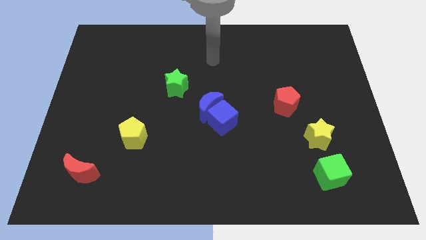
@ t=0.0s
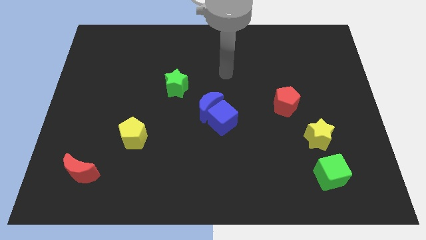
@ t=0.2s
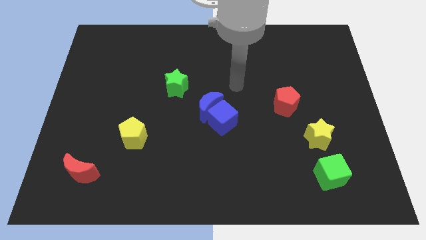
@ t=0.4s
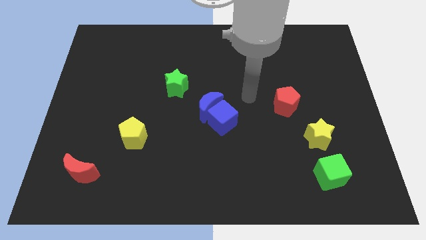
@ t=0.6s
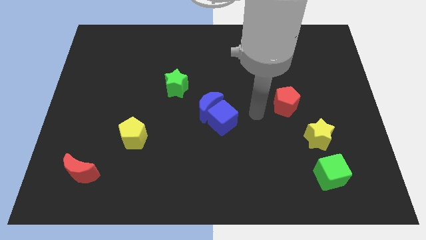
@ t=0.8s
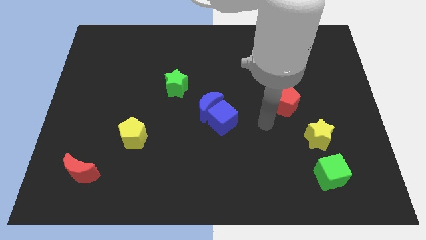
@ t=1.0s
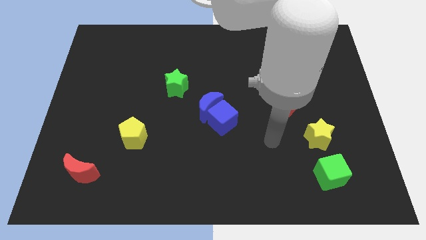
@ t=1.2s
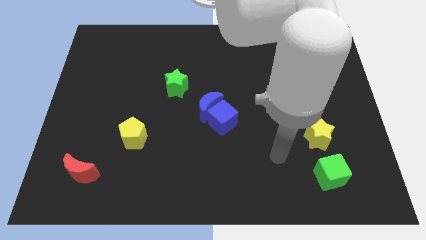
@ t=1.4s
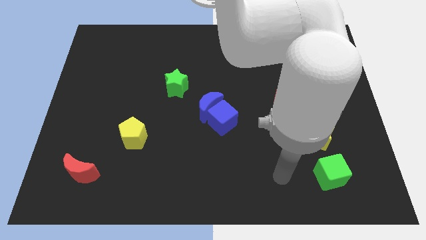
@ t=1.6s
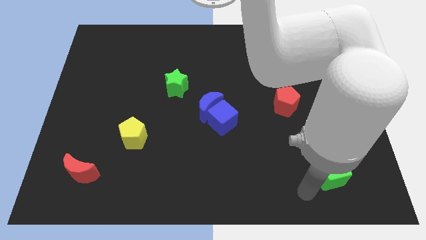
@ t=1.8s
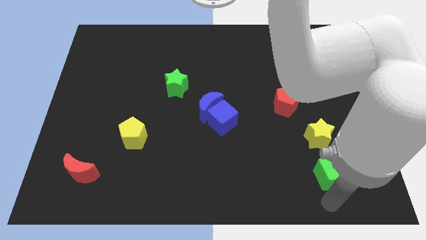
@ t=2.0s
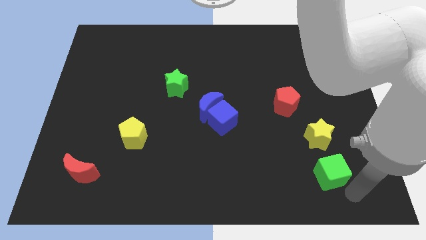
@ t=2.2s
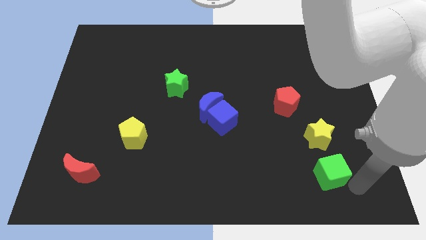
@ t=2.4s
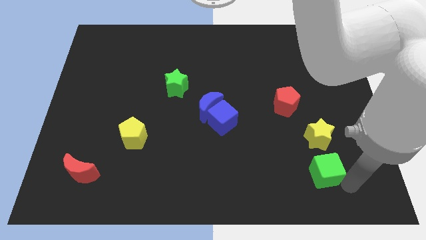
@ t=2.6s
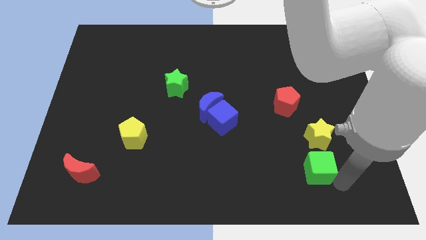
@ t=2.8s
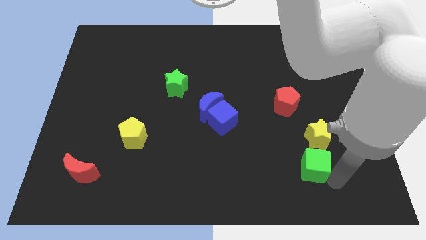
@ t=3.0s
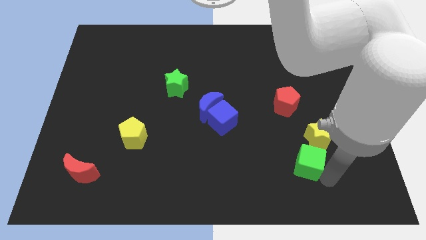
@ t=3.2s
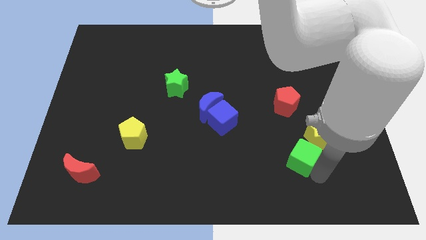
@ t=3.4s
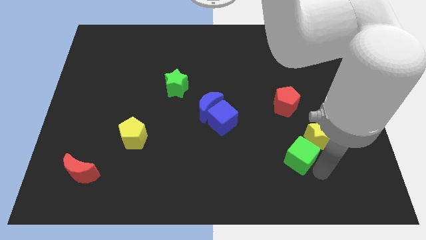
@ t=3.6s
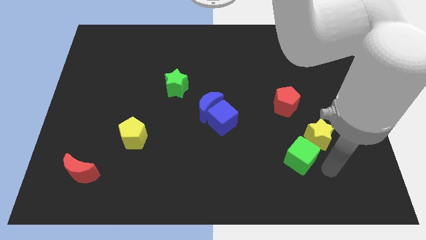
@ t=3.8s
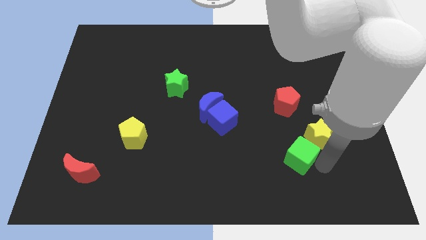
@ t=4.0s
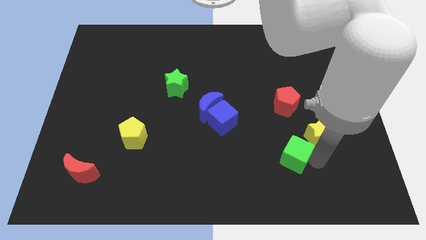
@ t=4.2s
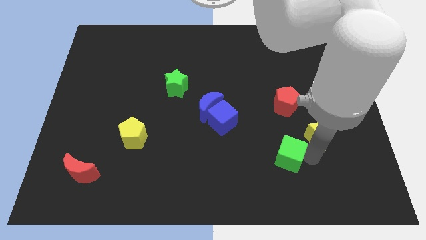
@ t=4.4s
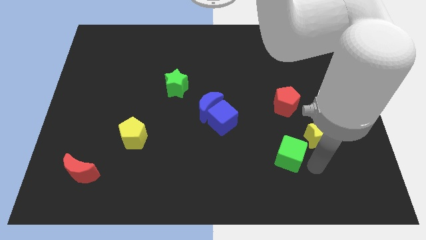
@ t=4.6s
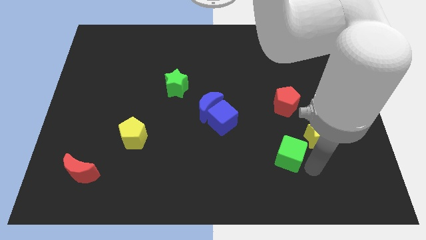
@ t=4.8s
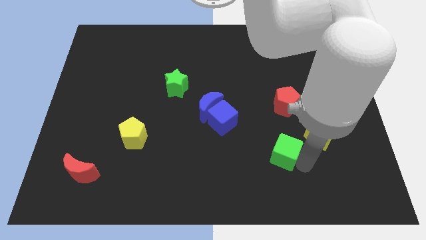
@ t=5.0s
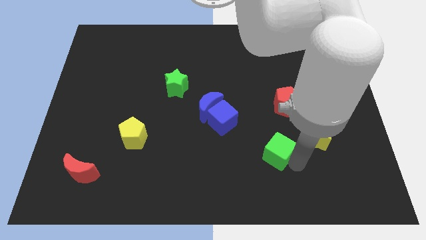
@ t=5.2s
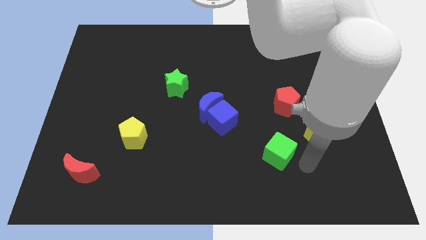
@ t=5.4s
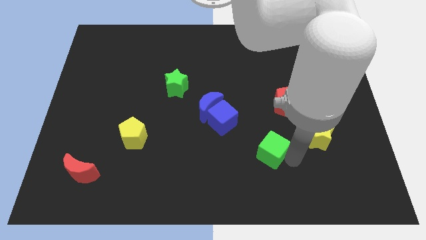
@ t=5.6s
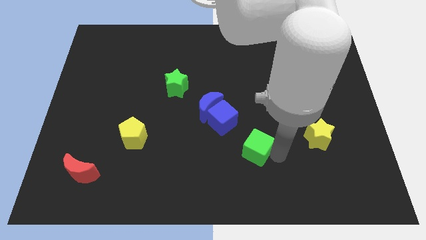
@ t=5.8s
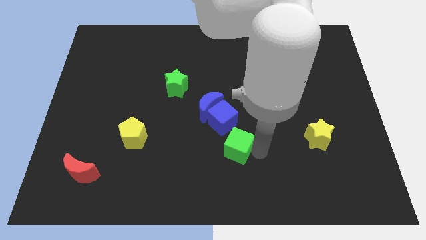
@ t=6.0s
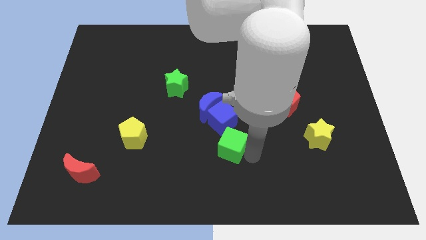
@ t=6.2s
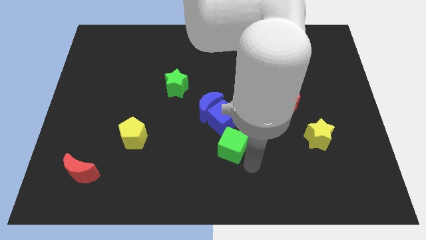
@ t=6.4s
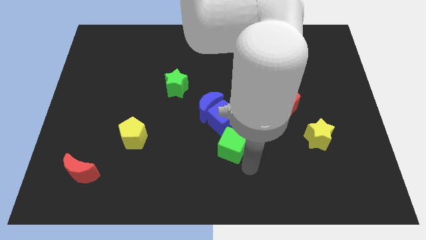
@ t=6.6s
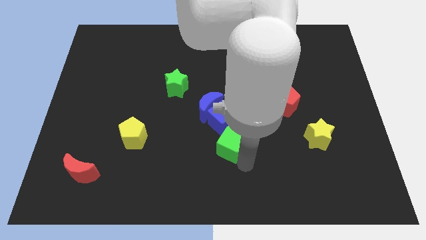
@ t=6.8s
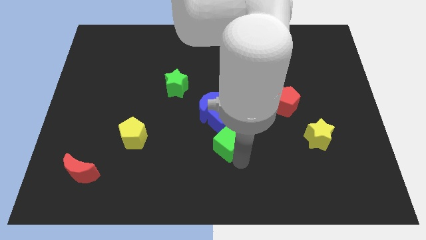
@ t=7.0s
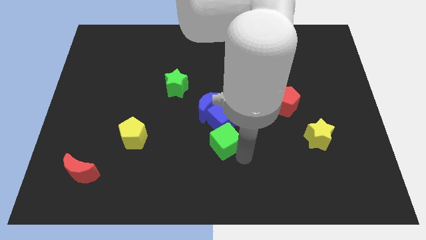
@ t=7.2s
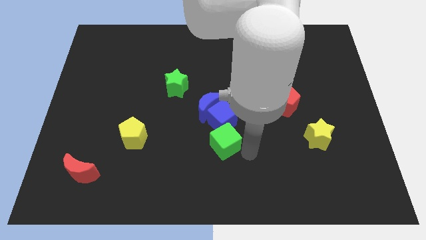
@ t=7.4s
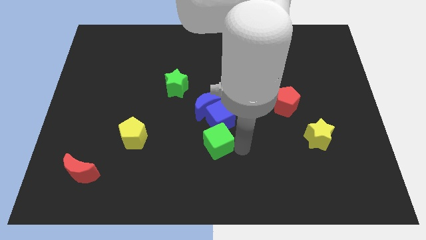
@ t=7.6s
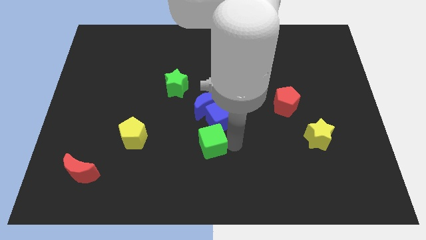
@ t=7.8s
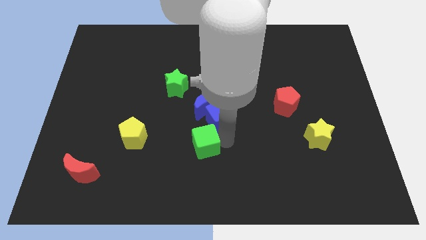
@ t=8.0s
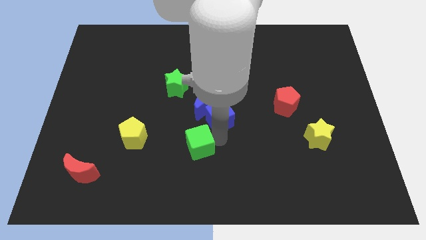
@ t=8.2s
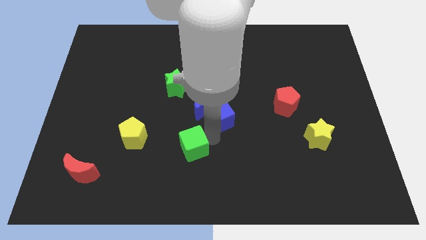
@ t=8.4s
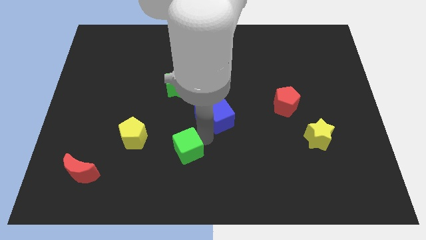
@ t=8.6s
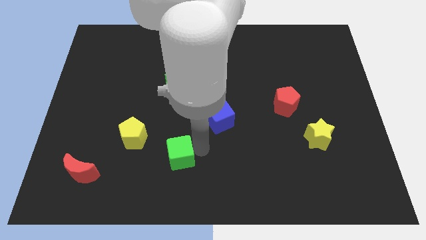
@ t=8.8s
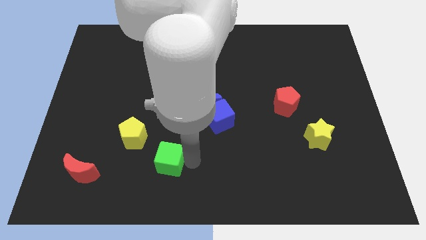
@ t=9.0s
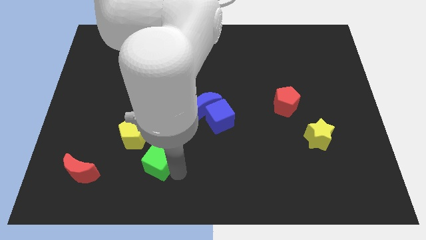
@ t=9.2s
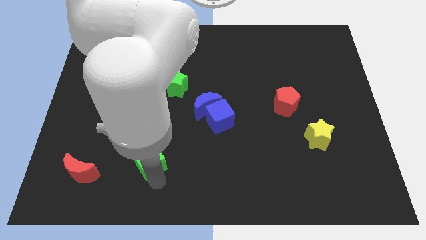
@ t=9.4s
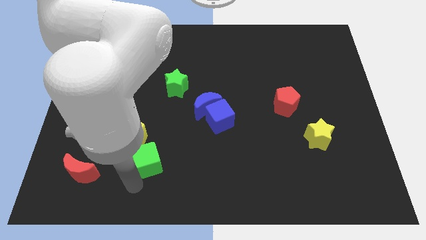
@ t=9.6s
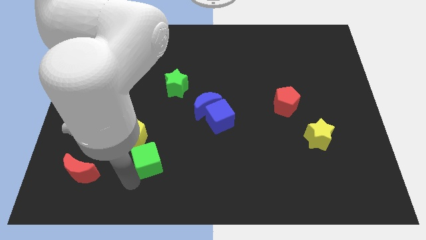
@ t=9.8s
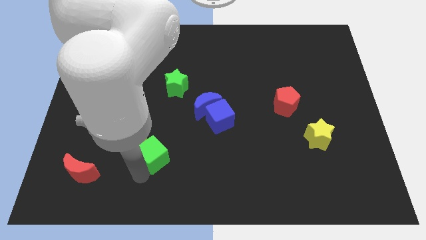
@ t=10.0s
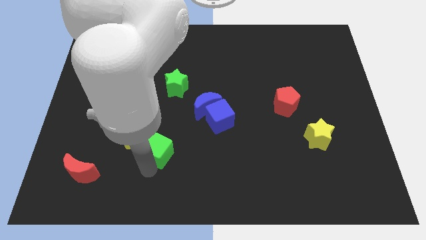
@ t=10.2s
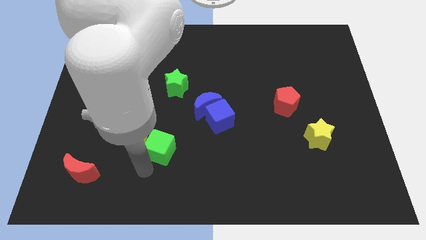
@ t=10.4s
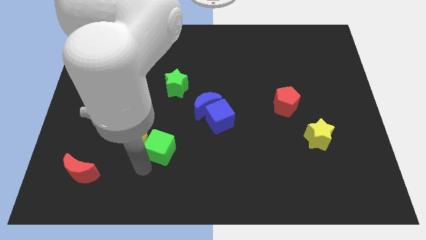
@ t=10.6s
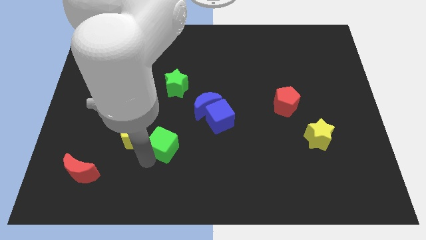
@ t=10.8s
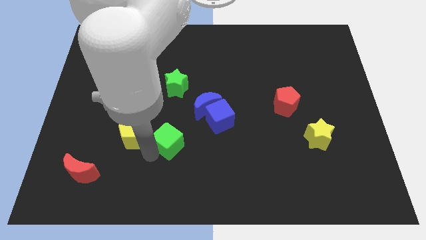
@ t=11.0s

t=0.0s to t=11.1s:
push the green cube diagonally down and to the left of the blue moon

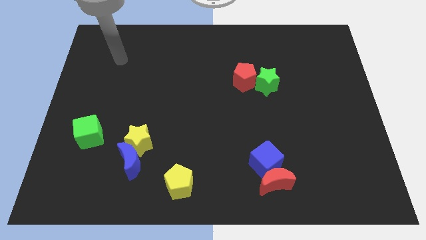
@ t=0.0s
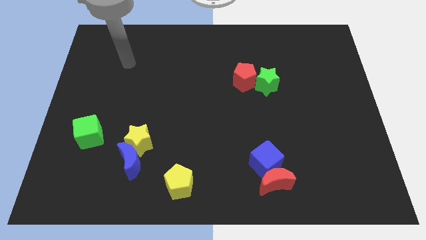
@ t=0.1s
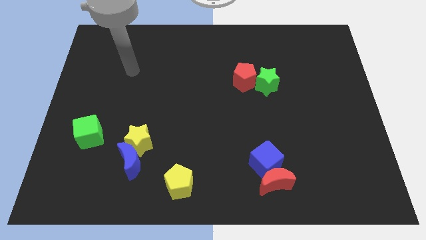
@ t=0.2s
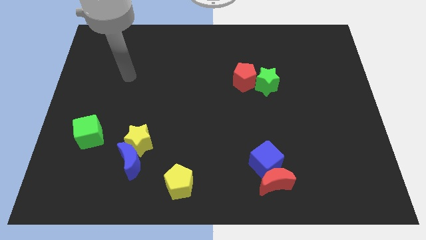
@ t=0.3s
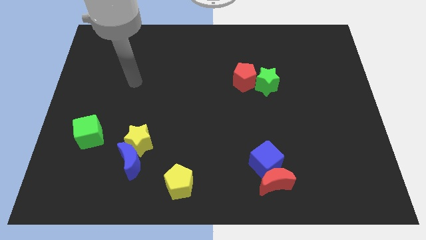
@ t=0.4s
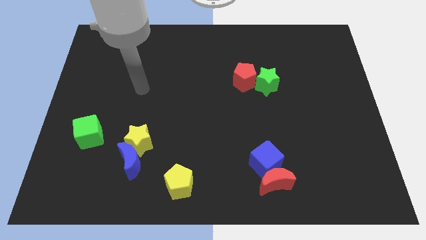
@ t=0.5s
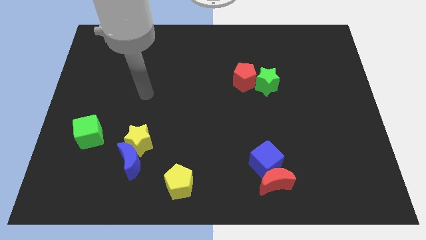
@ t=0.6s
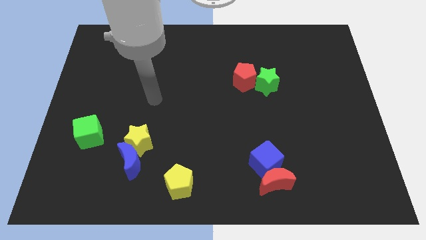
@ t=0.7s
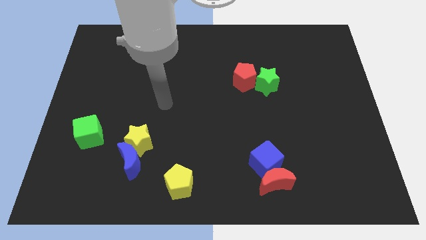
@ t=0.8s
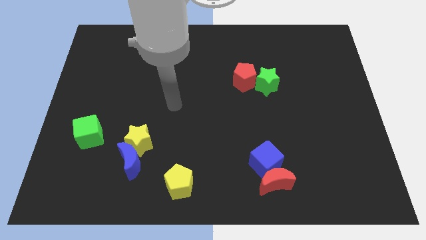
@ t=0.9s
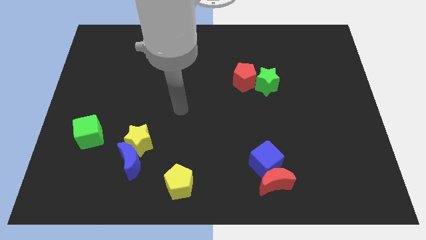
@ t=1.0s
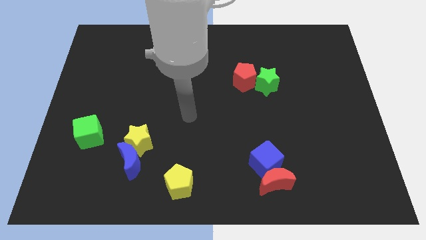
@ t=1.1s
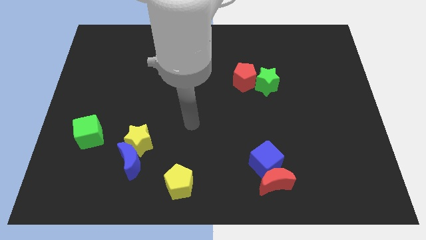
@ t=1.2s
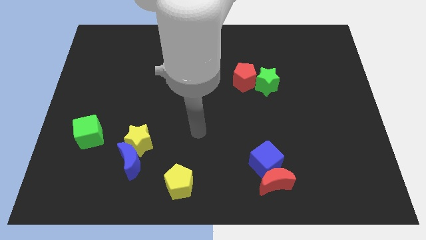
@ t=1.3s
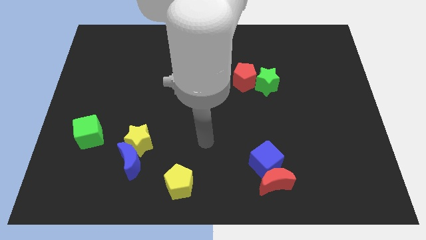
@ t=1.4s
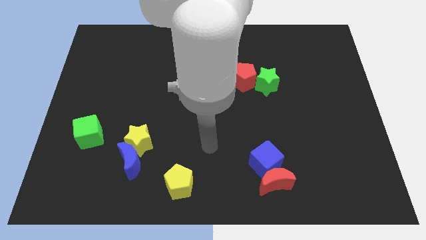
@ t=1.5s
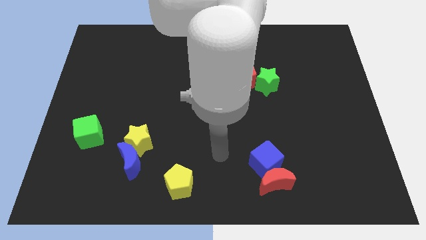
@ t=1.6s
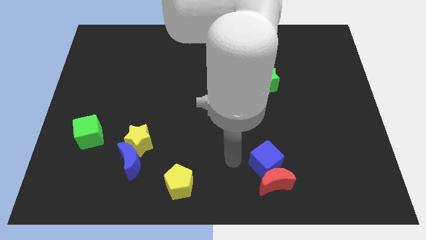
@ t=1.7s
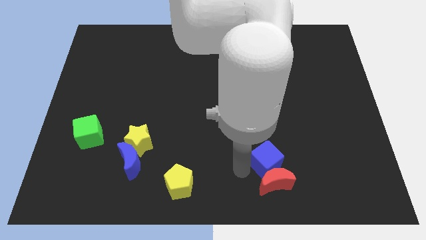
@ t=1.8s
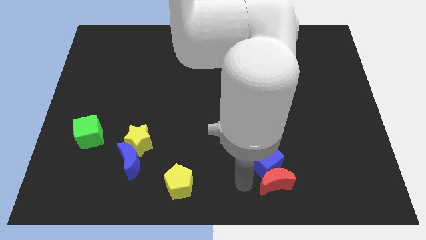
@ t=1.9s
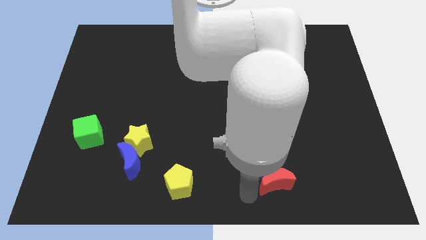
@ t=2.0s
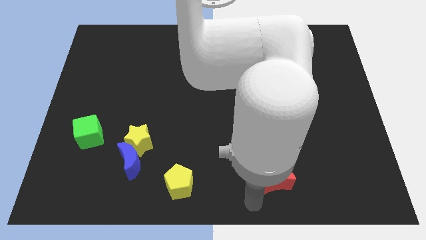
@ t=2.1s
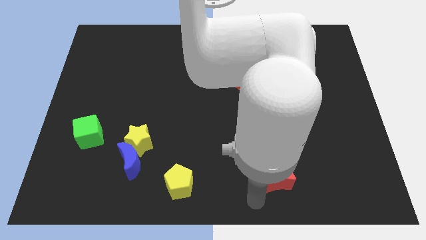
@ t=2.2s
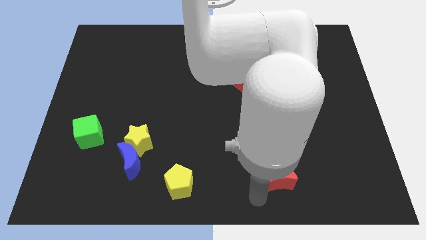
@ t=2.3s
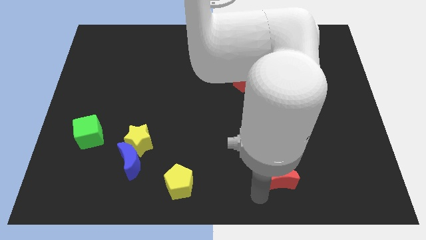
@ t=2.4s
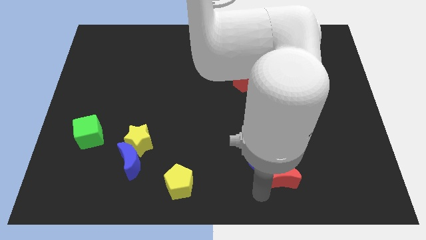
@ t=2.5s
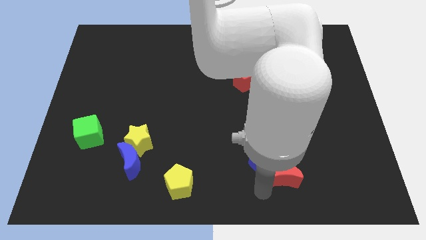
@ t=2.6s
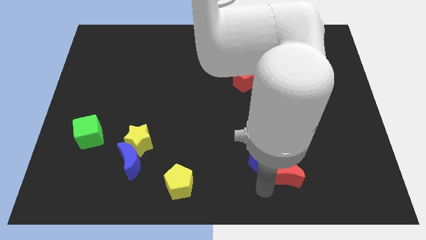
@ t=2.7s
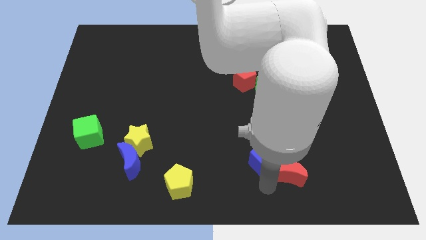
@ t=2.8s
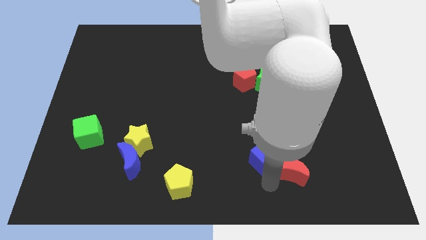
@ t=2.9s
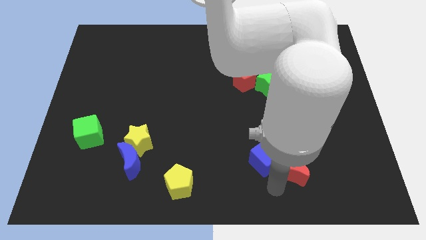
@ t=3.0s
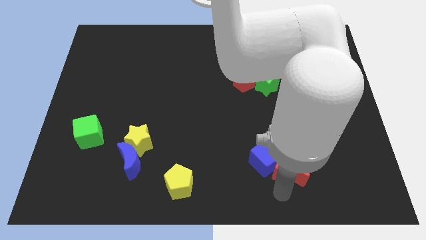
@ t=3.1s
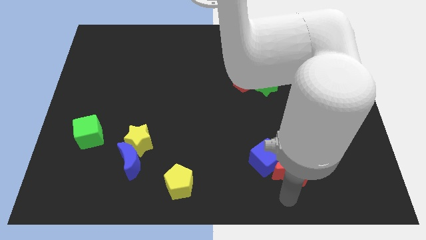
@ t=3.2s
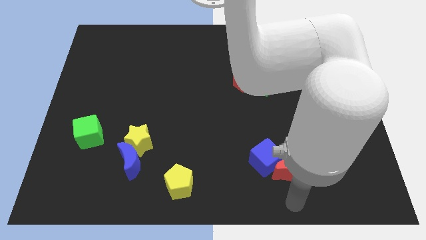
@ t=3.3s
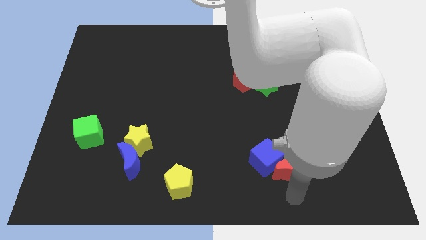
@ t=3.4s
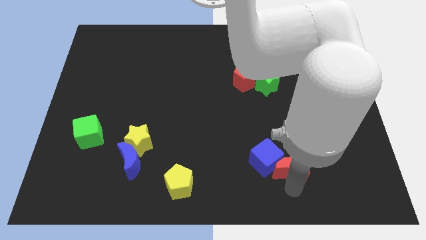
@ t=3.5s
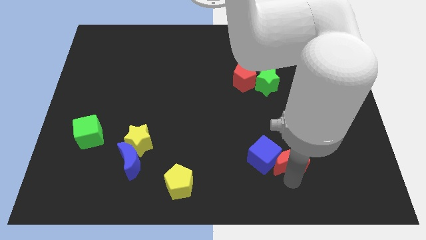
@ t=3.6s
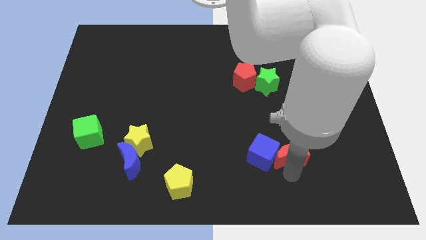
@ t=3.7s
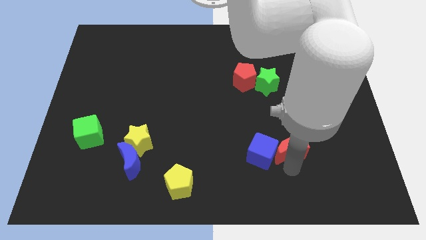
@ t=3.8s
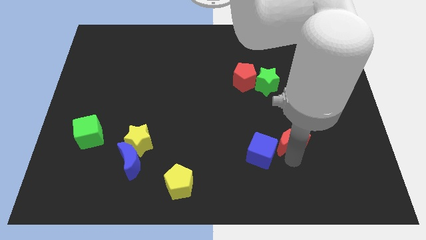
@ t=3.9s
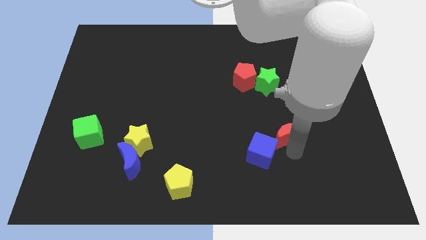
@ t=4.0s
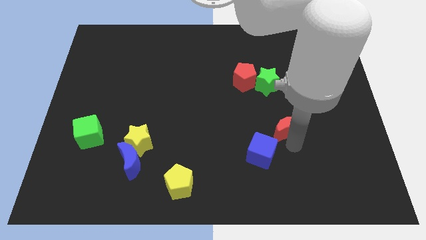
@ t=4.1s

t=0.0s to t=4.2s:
push the red moon below the green star
